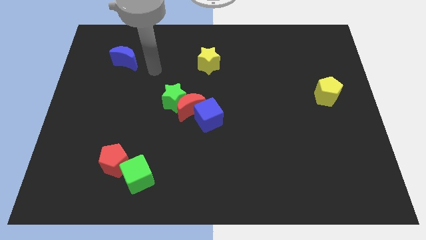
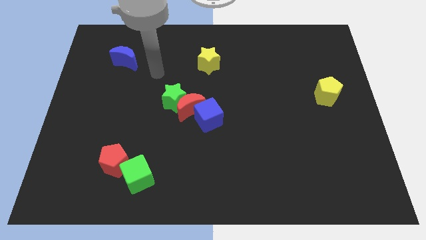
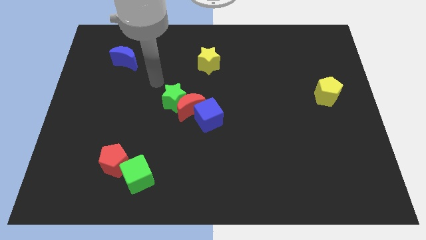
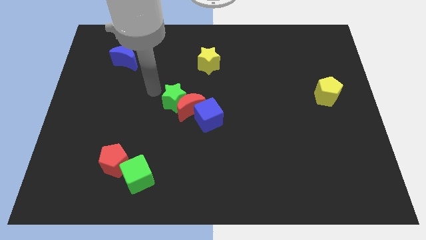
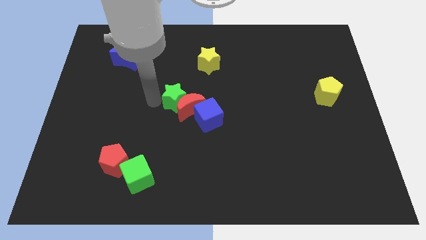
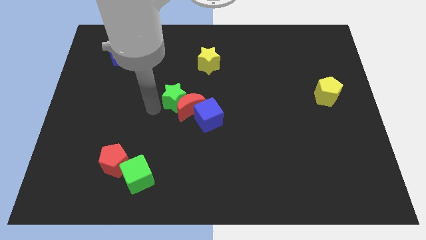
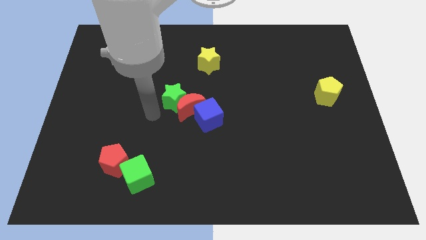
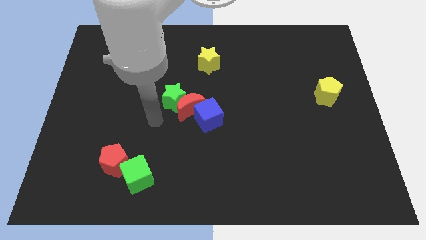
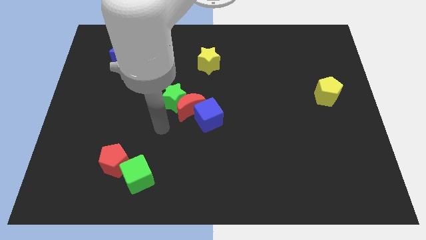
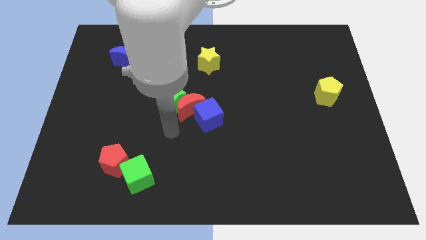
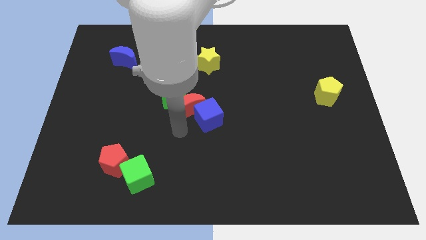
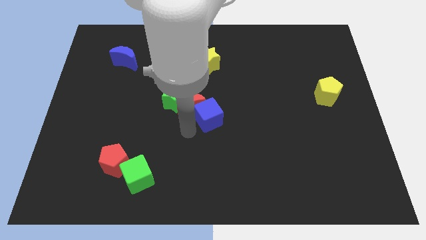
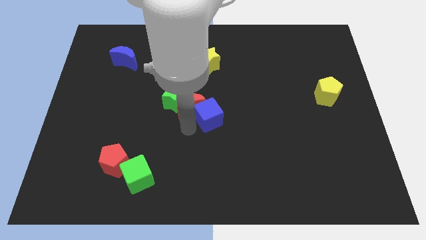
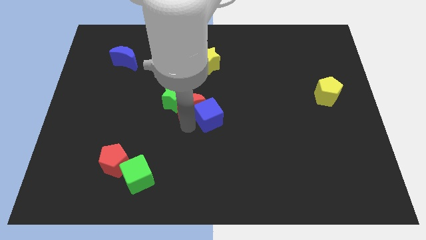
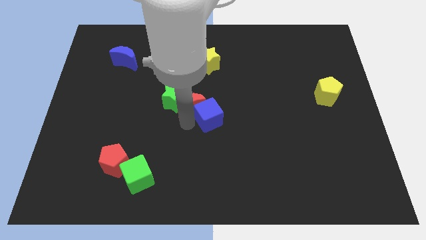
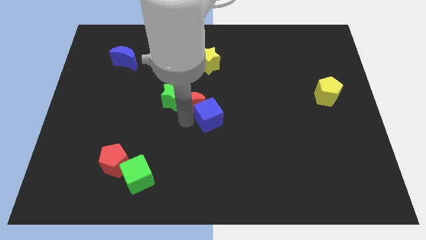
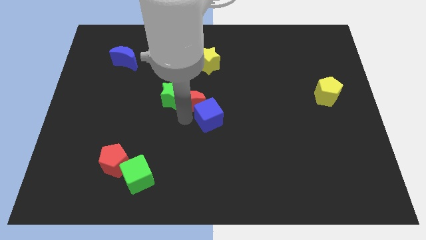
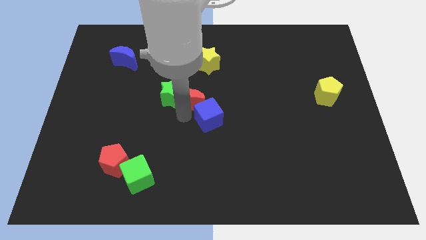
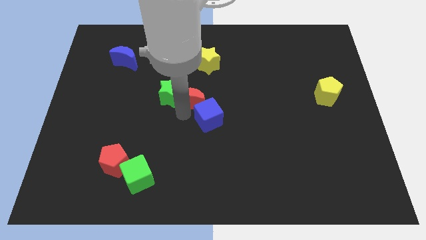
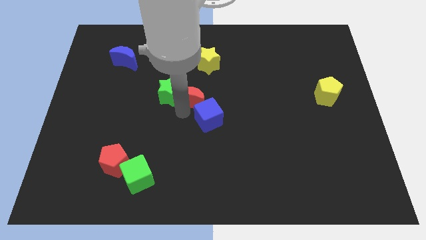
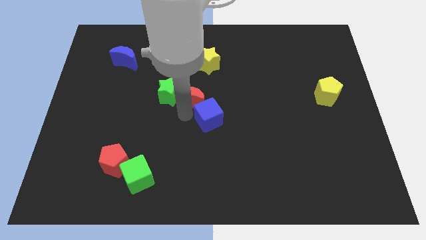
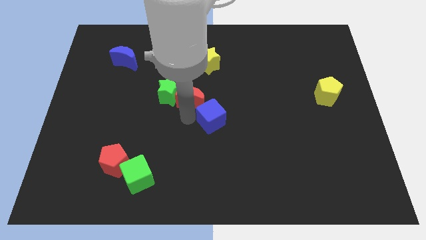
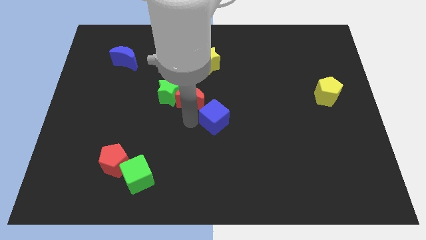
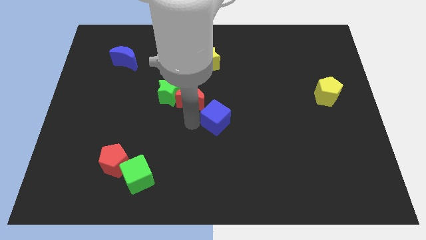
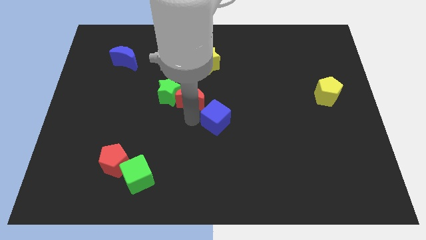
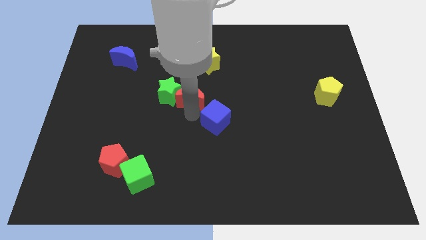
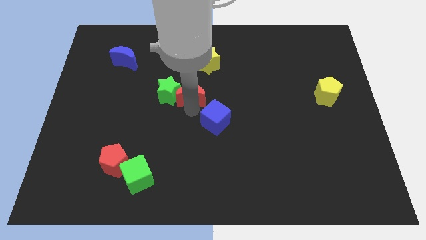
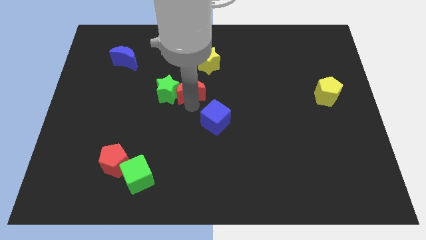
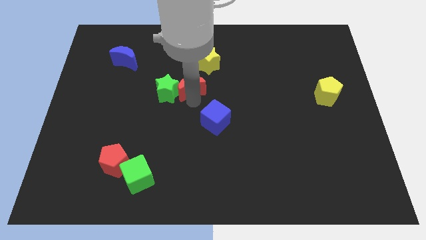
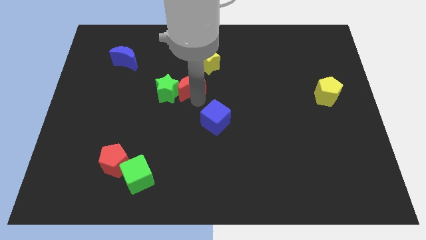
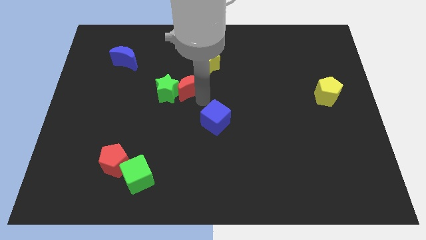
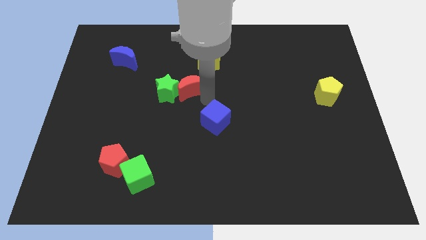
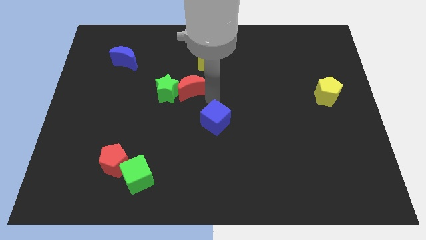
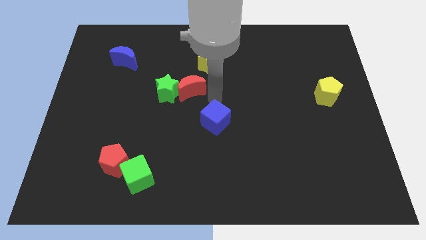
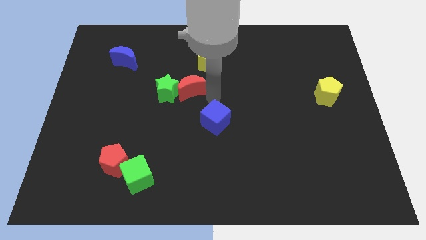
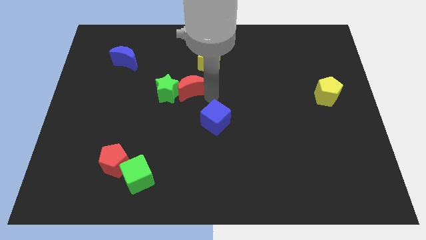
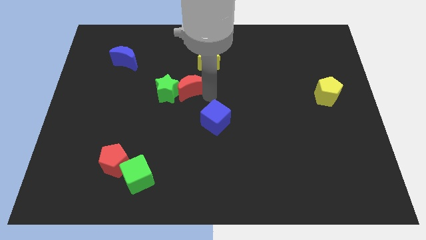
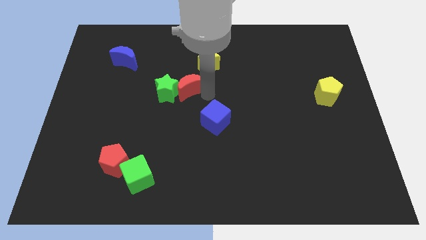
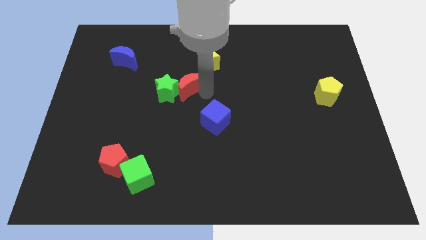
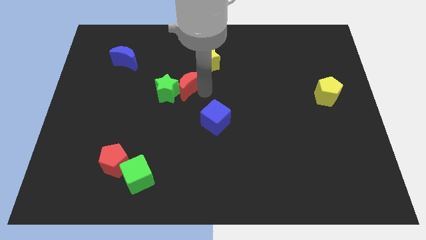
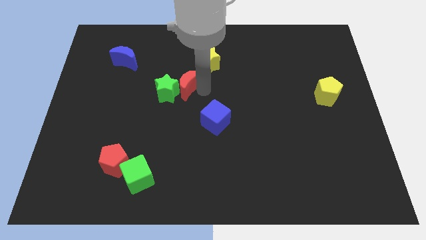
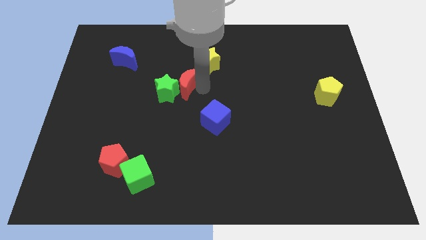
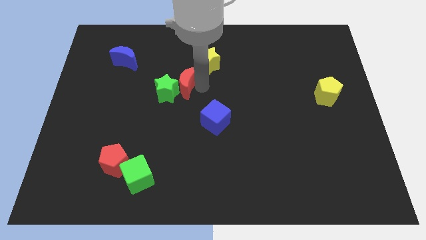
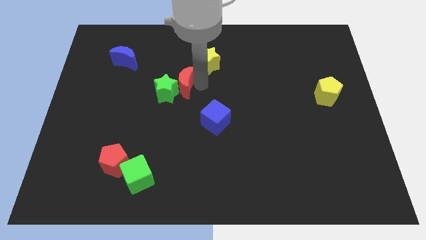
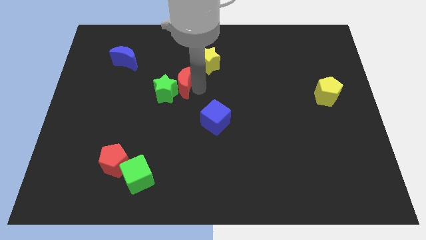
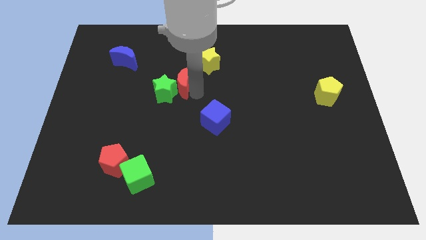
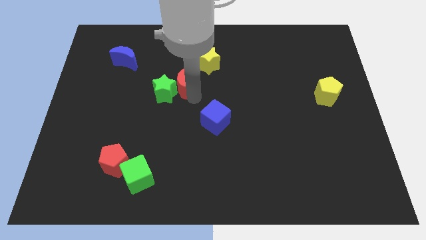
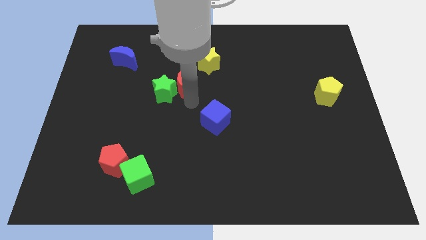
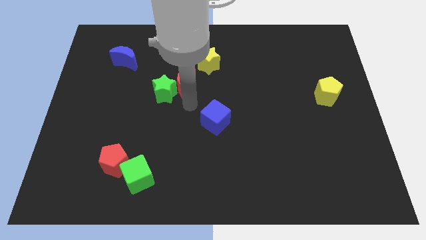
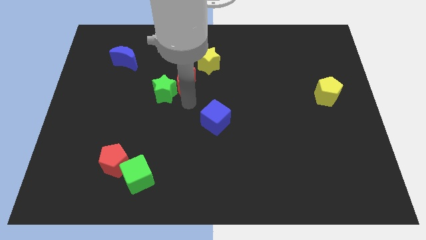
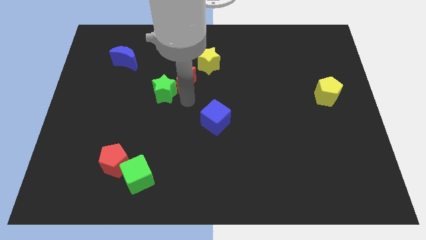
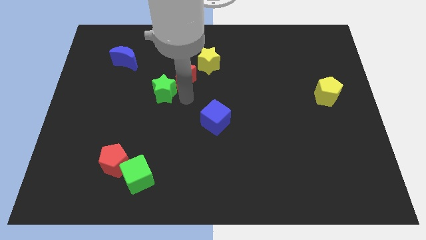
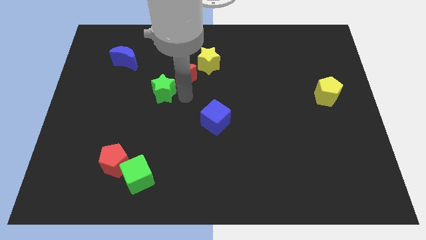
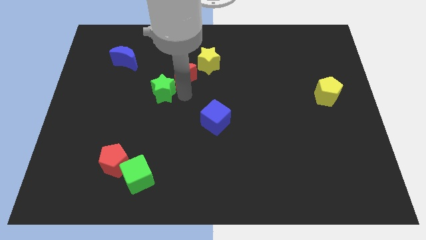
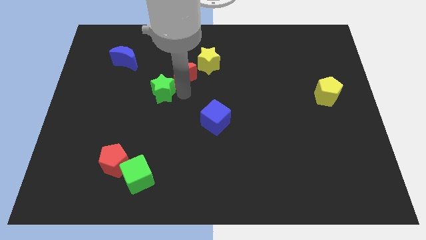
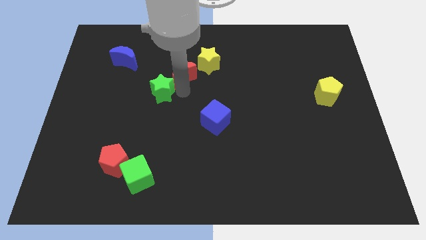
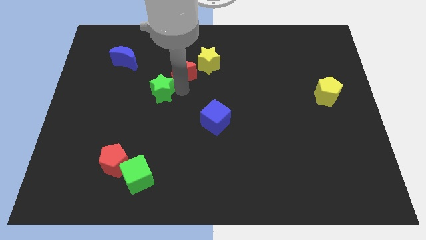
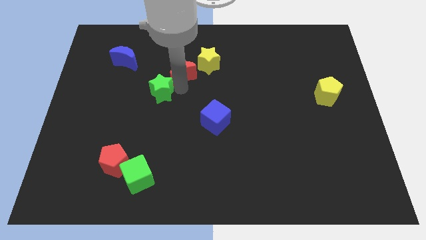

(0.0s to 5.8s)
separate the red moon from the green star and blue cube

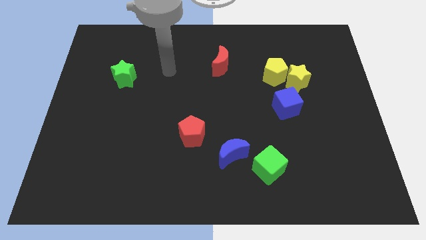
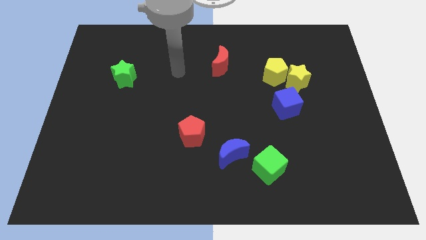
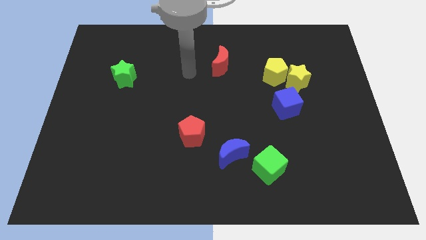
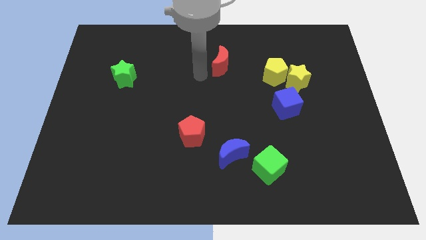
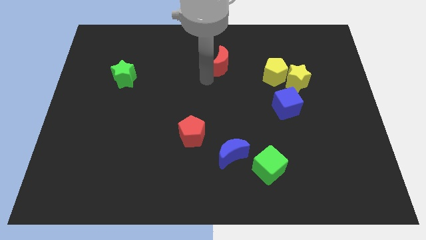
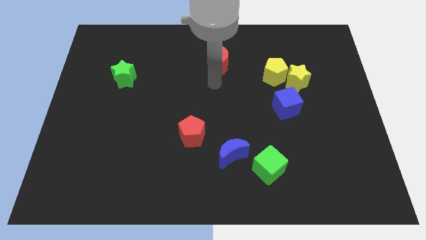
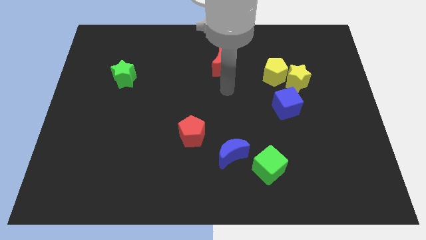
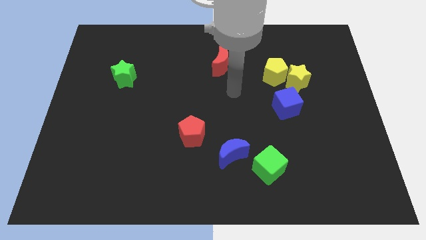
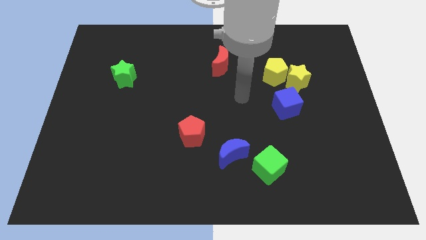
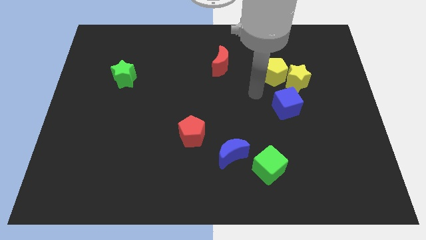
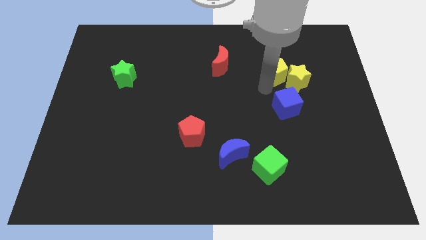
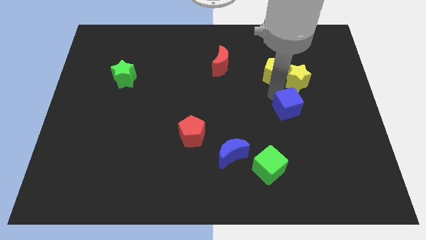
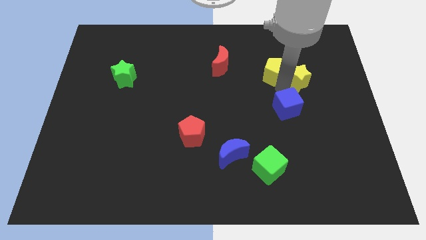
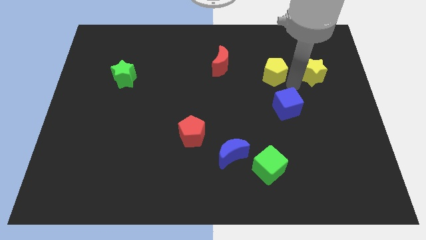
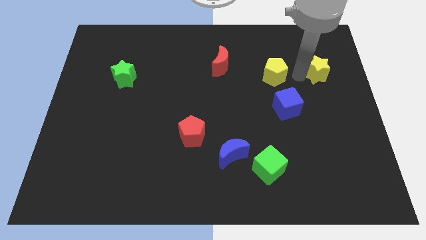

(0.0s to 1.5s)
pull the yellow pentagon apart from the yellow star

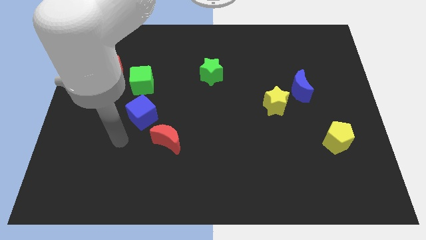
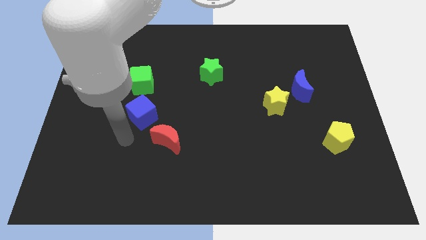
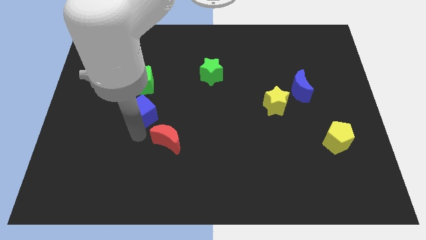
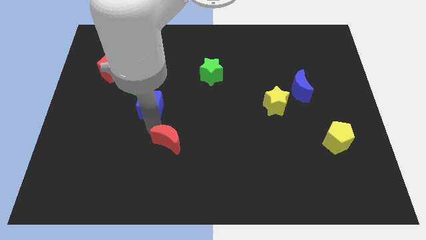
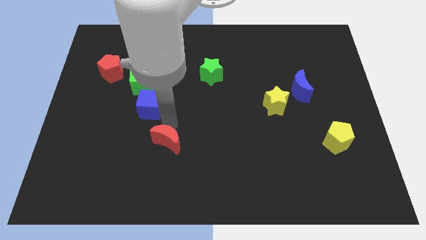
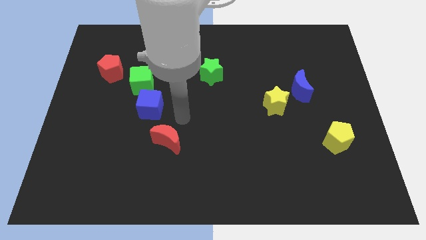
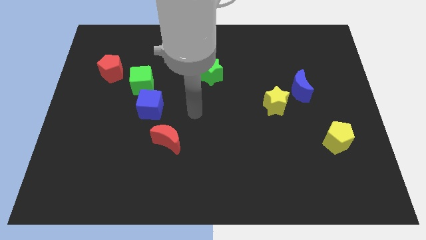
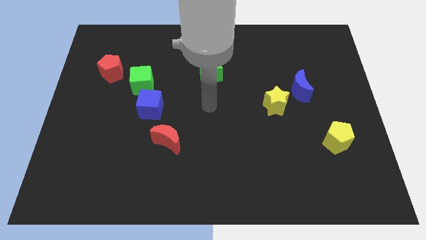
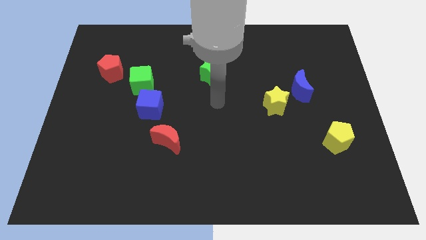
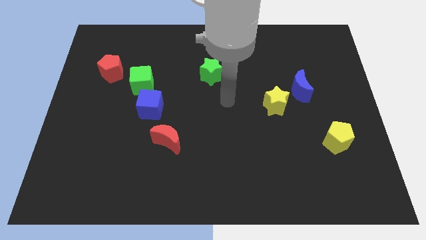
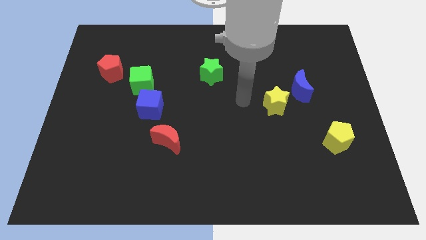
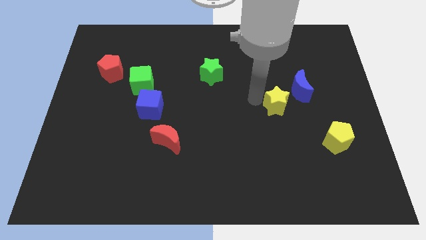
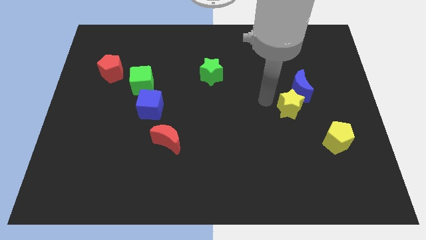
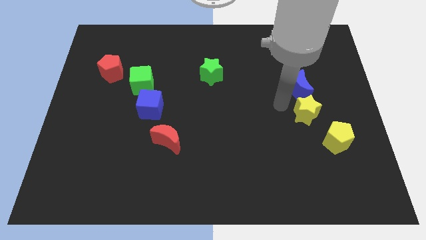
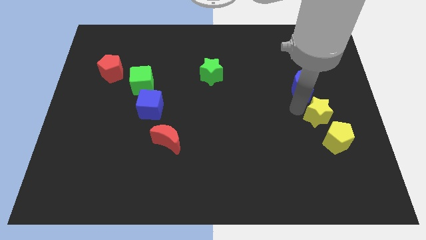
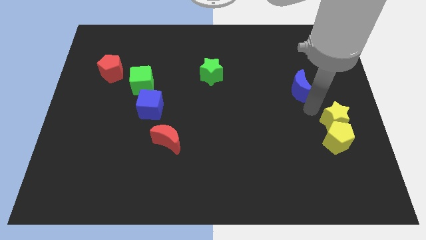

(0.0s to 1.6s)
pull the blue moon apart from the yellow star
